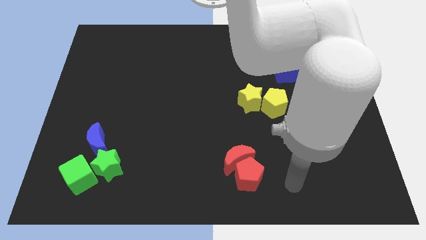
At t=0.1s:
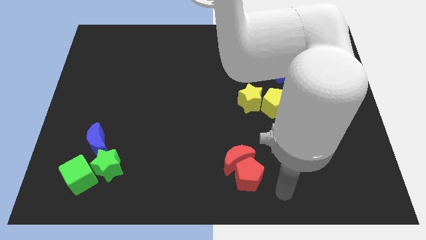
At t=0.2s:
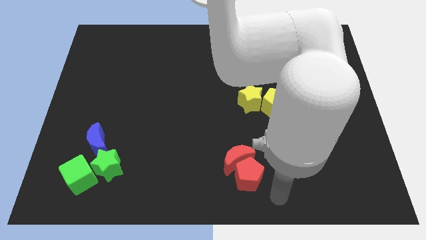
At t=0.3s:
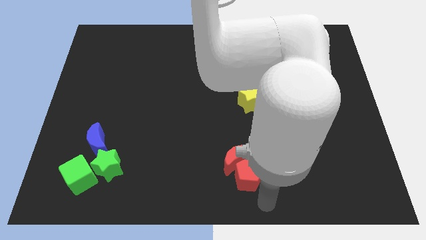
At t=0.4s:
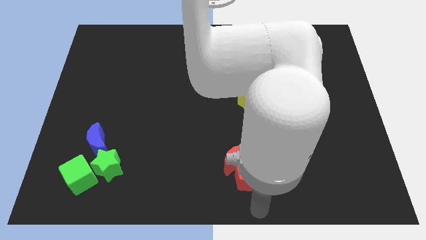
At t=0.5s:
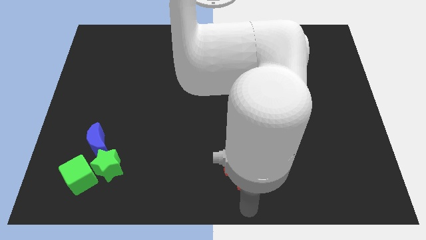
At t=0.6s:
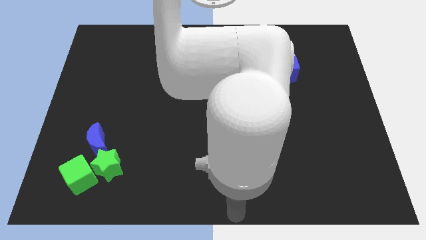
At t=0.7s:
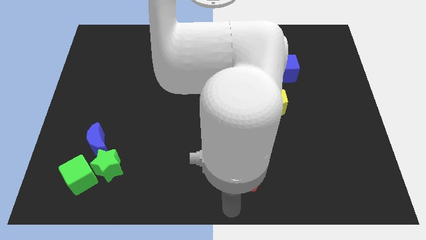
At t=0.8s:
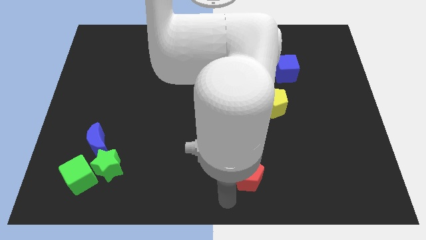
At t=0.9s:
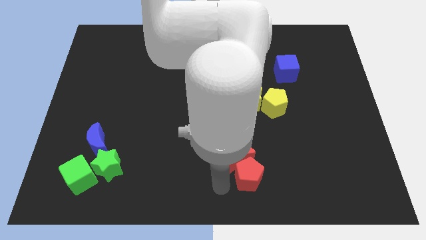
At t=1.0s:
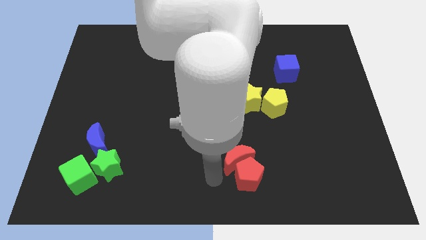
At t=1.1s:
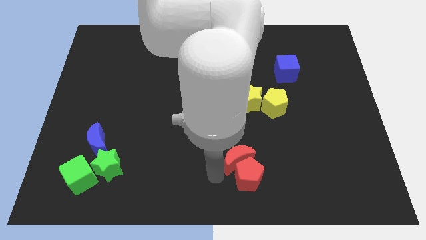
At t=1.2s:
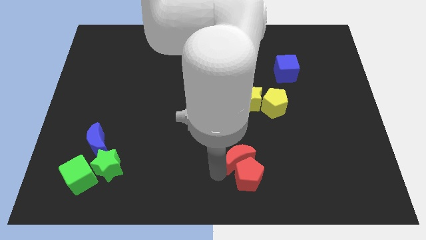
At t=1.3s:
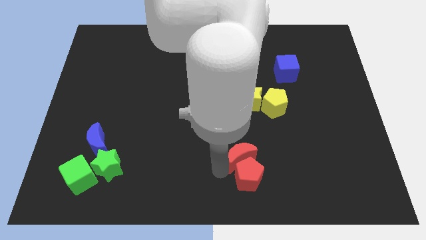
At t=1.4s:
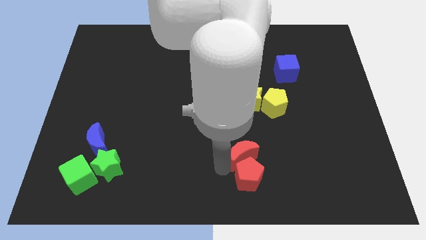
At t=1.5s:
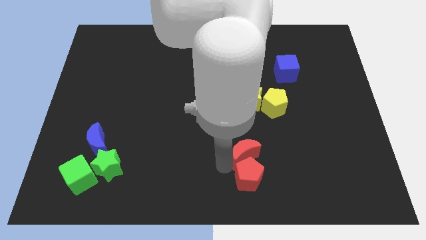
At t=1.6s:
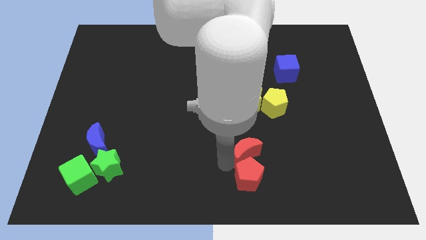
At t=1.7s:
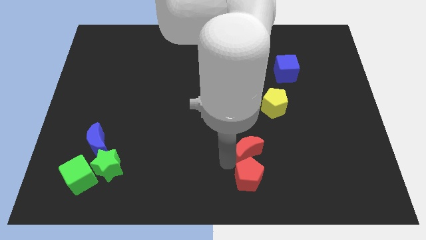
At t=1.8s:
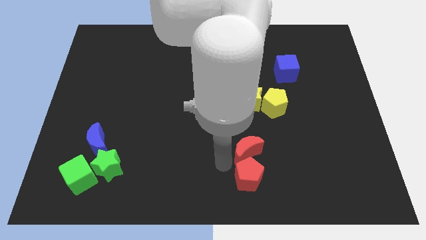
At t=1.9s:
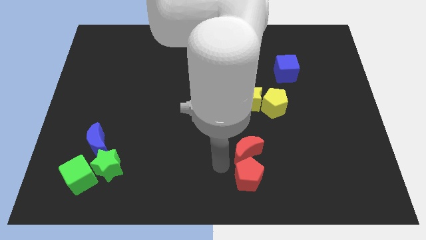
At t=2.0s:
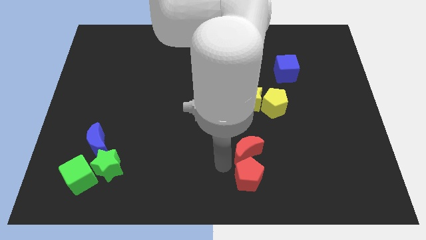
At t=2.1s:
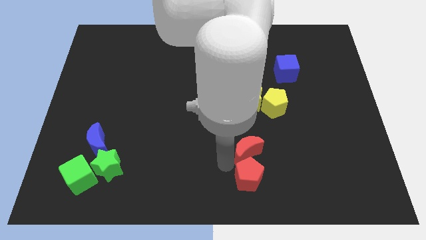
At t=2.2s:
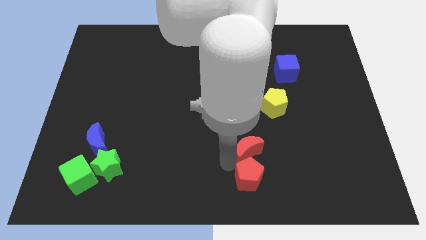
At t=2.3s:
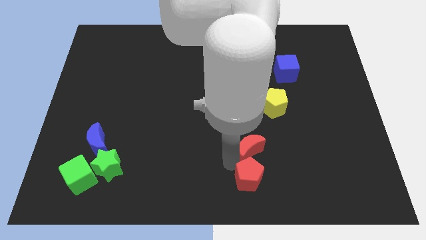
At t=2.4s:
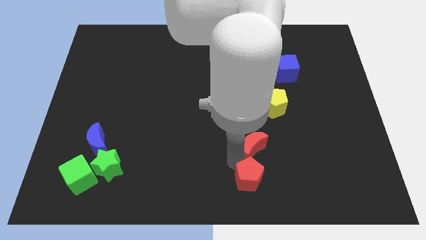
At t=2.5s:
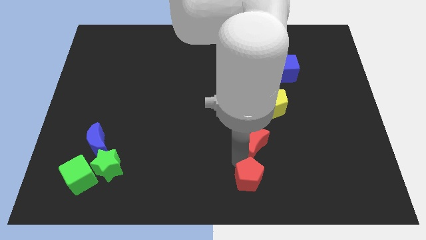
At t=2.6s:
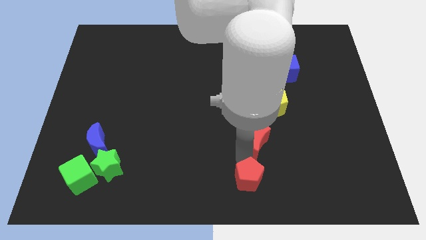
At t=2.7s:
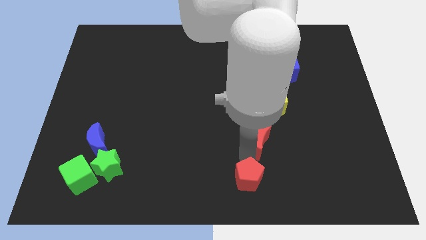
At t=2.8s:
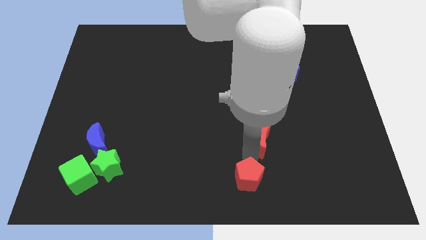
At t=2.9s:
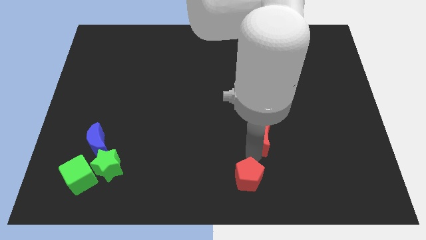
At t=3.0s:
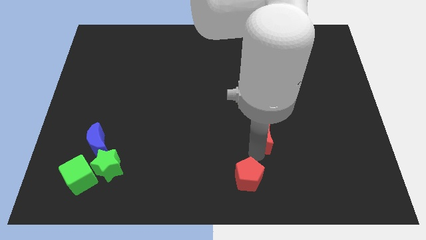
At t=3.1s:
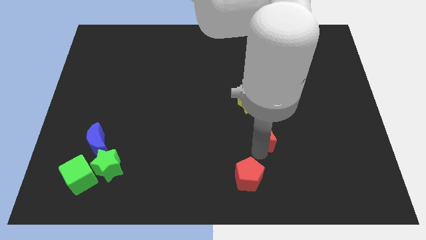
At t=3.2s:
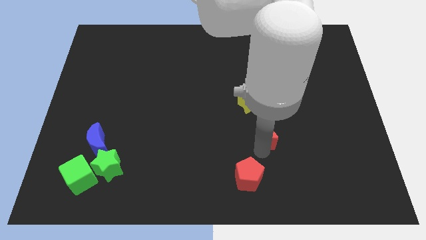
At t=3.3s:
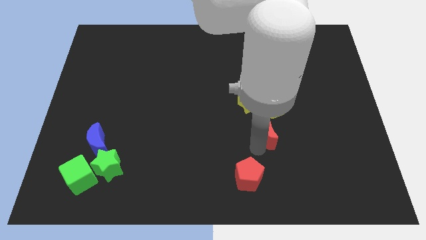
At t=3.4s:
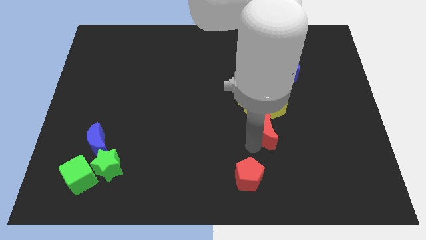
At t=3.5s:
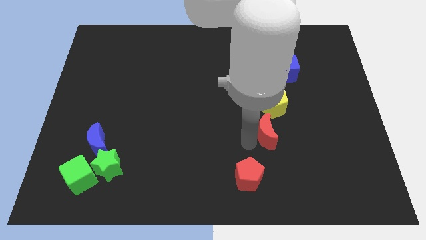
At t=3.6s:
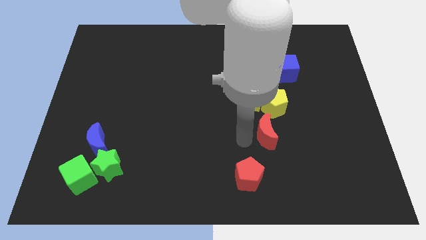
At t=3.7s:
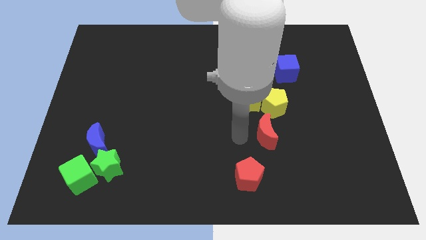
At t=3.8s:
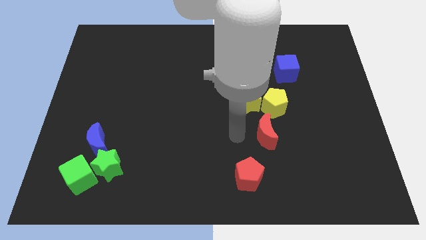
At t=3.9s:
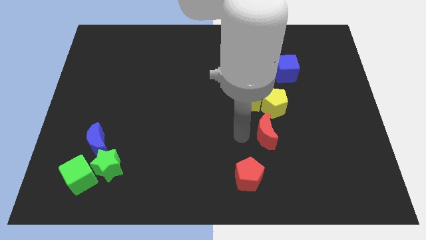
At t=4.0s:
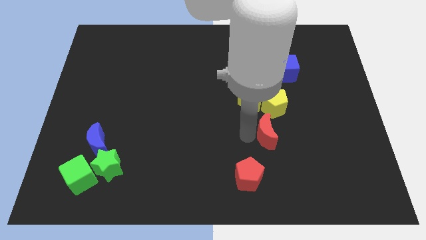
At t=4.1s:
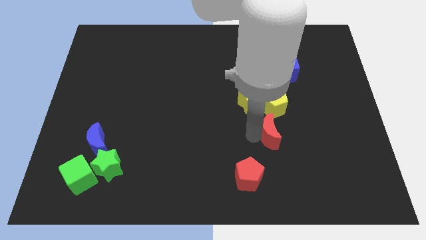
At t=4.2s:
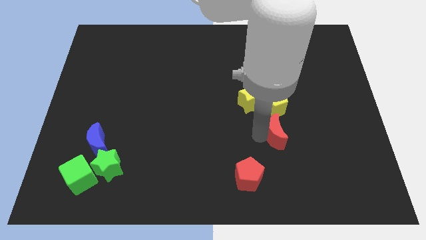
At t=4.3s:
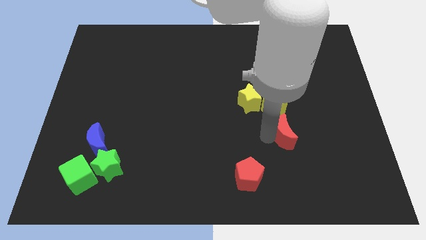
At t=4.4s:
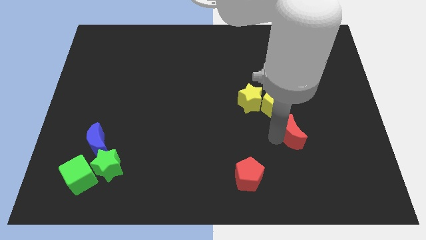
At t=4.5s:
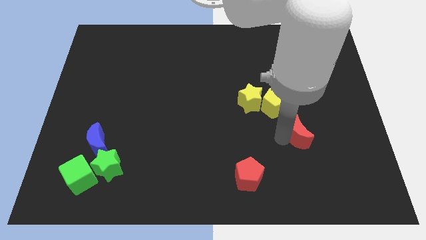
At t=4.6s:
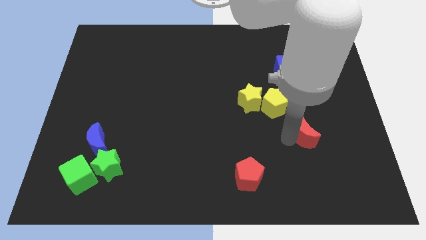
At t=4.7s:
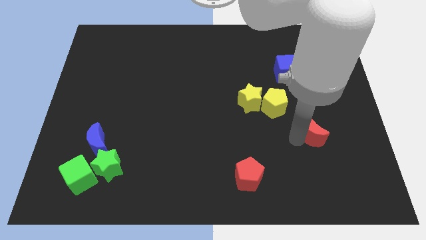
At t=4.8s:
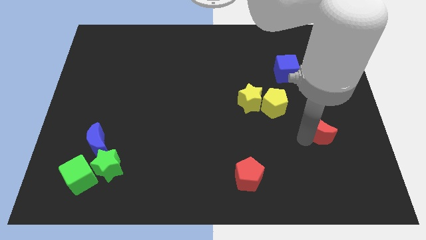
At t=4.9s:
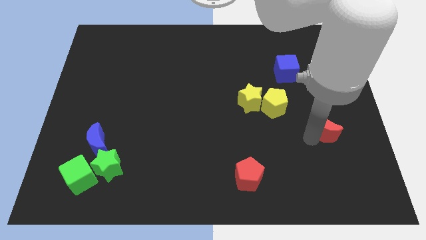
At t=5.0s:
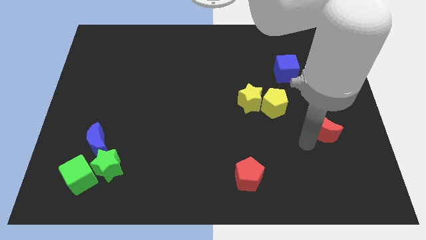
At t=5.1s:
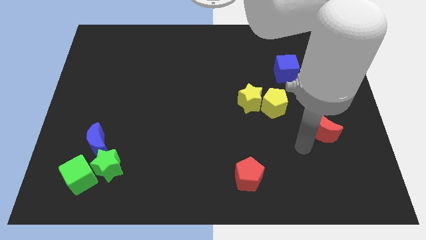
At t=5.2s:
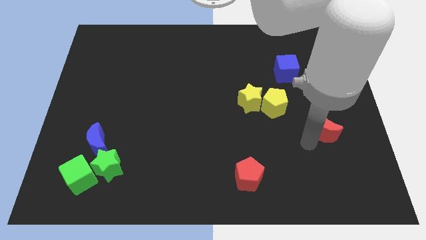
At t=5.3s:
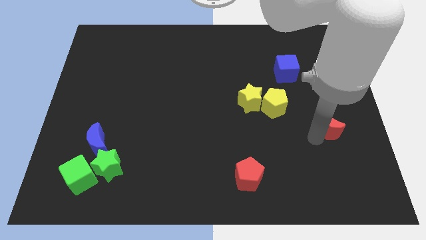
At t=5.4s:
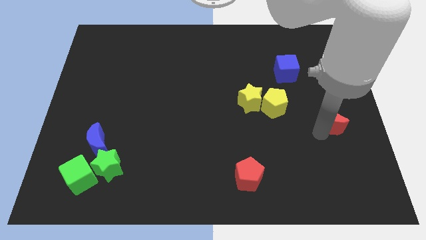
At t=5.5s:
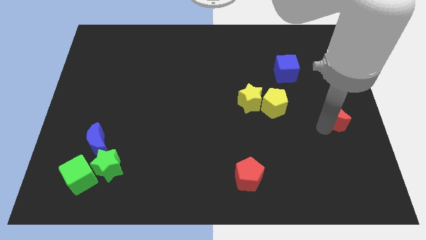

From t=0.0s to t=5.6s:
put the red moon to the right side

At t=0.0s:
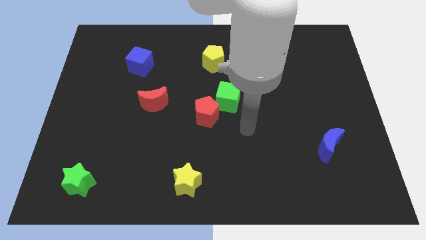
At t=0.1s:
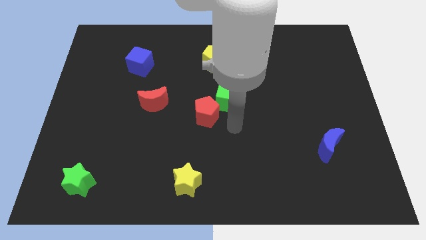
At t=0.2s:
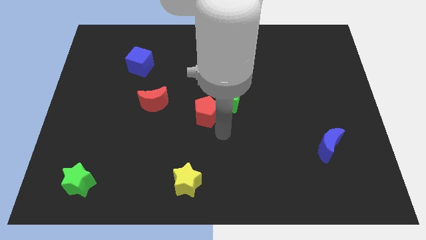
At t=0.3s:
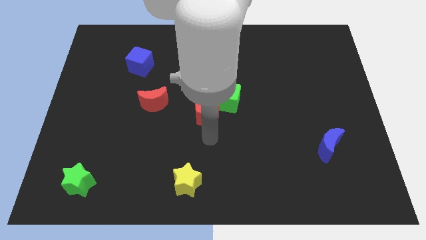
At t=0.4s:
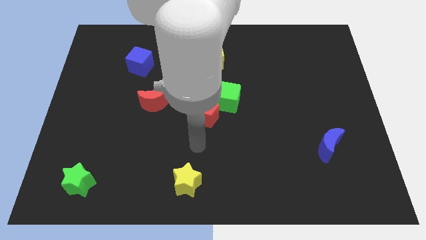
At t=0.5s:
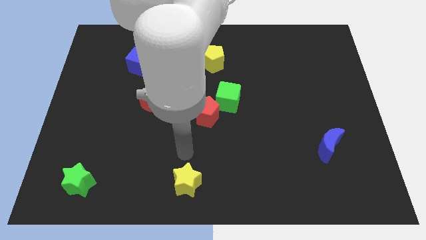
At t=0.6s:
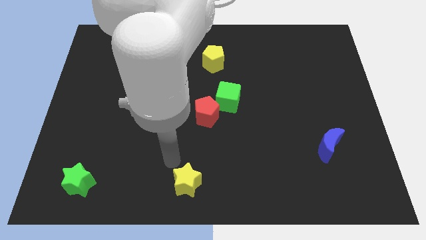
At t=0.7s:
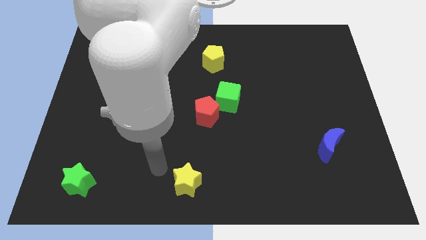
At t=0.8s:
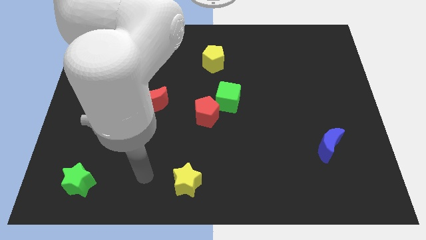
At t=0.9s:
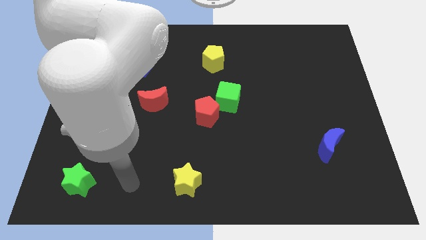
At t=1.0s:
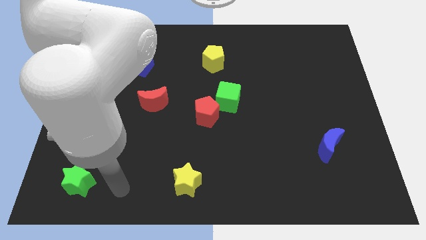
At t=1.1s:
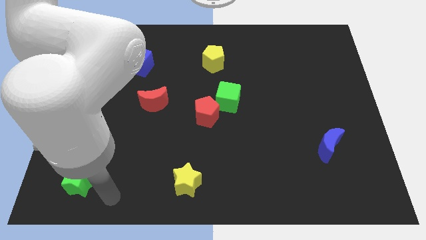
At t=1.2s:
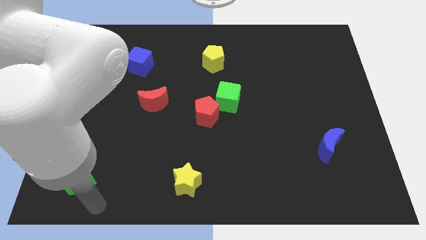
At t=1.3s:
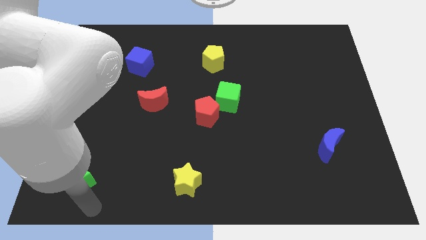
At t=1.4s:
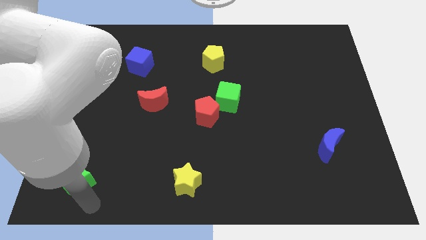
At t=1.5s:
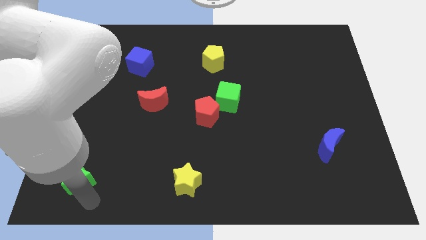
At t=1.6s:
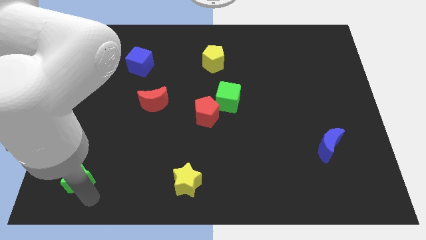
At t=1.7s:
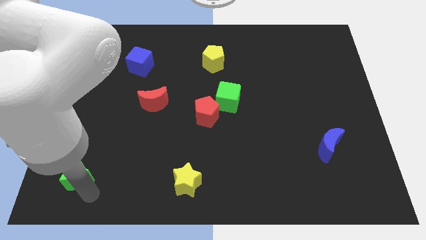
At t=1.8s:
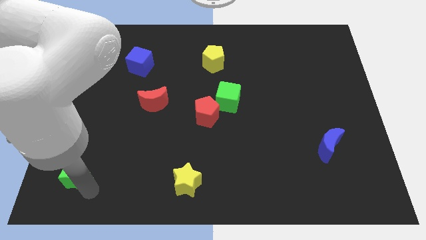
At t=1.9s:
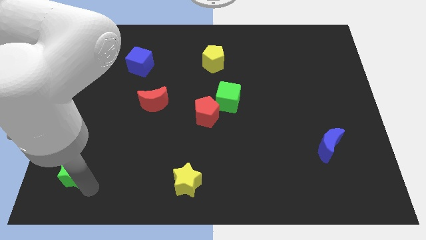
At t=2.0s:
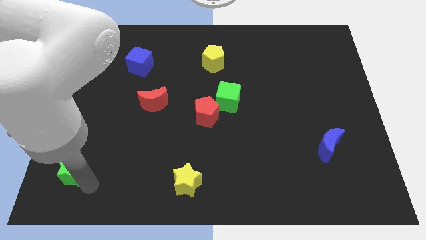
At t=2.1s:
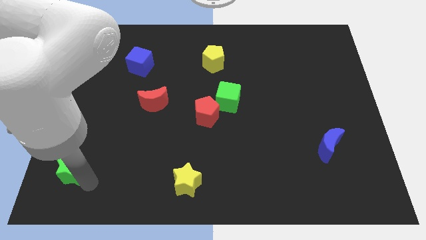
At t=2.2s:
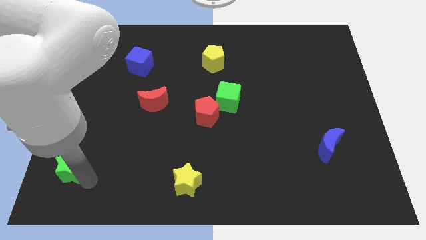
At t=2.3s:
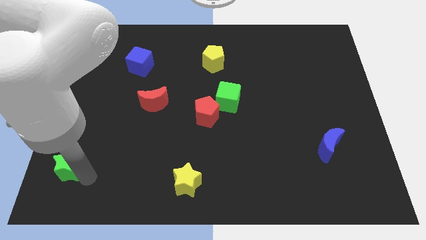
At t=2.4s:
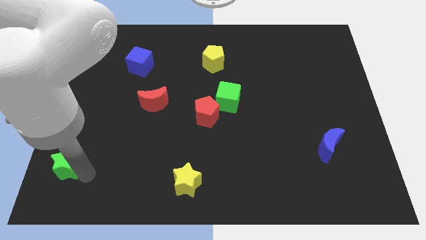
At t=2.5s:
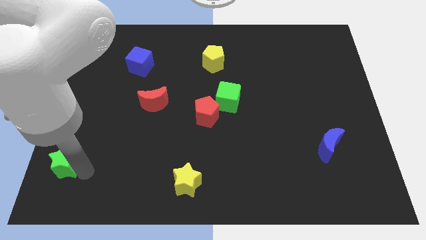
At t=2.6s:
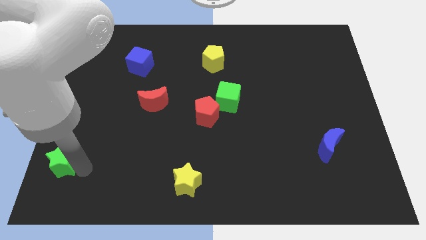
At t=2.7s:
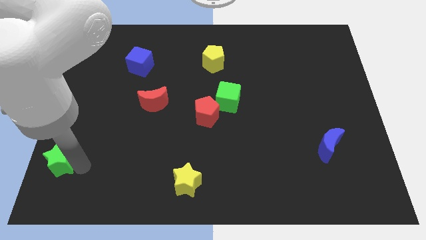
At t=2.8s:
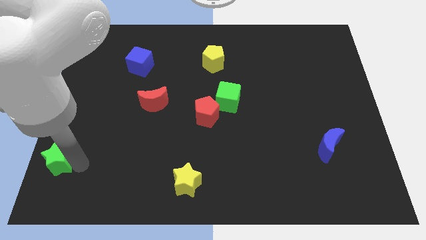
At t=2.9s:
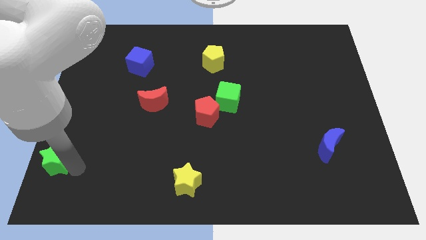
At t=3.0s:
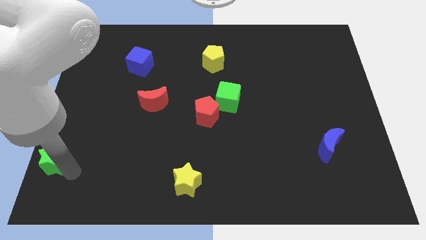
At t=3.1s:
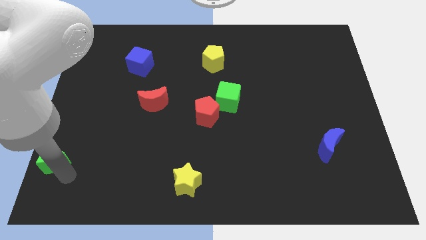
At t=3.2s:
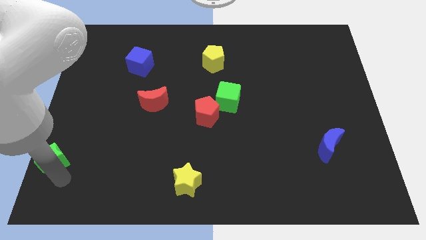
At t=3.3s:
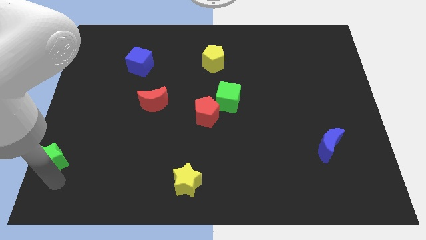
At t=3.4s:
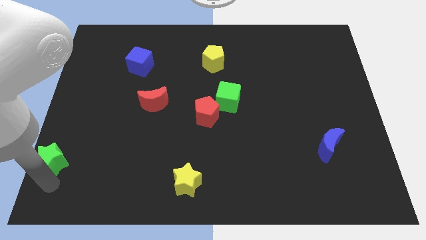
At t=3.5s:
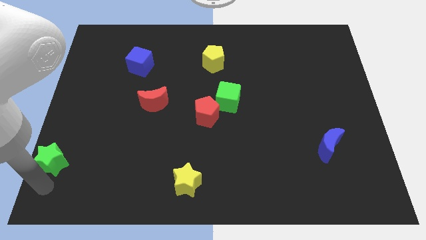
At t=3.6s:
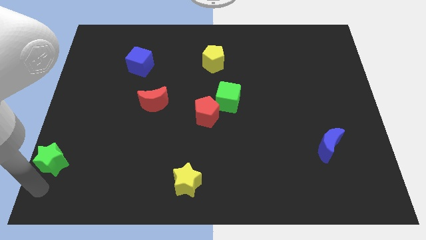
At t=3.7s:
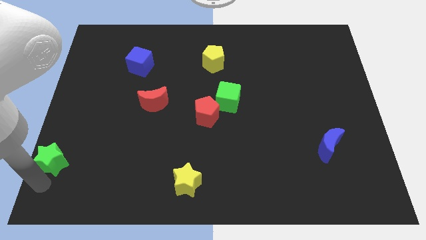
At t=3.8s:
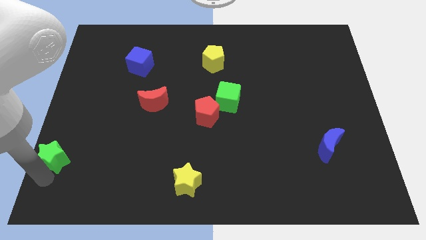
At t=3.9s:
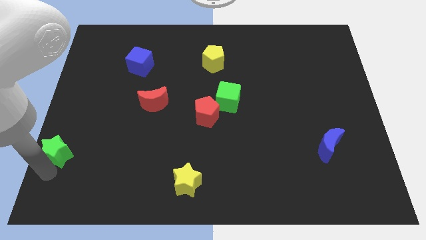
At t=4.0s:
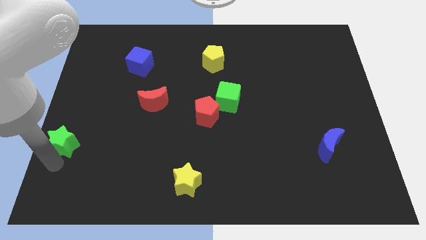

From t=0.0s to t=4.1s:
slide the green star to the center left
